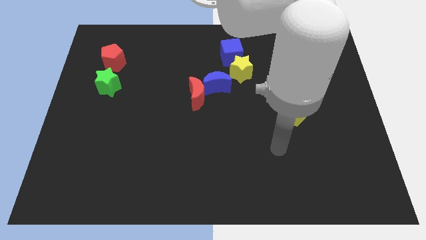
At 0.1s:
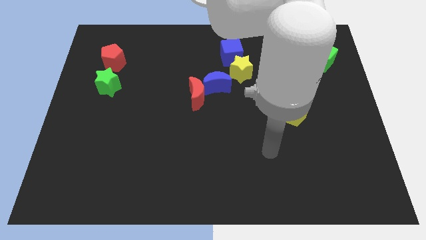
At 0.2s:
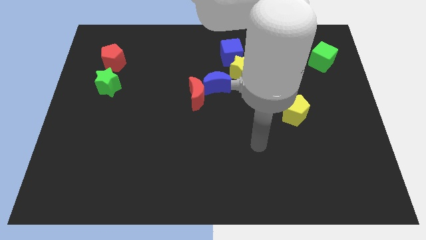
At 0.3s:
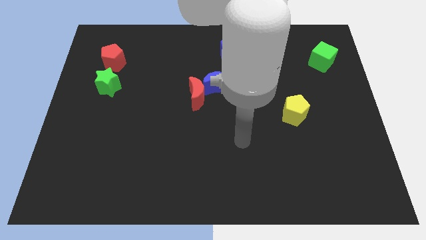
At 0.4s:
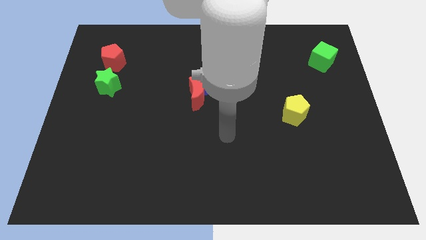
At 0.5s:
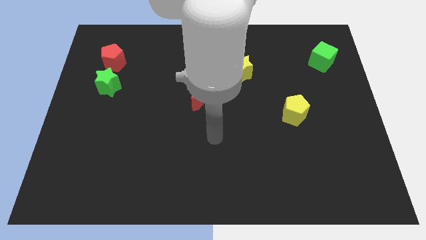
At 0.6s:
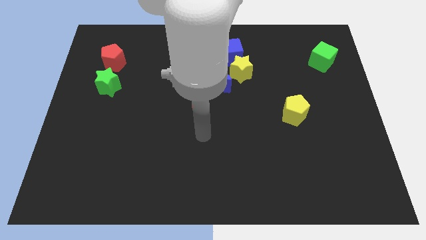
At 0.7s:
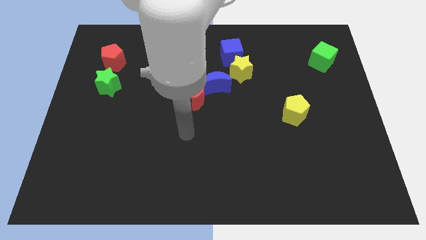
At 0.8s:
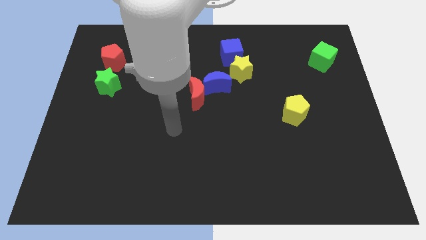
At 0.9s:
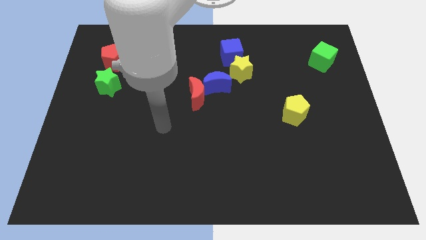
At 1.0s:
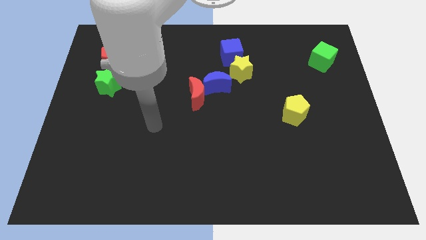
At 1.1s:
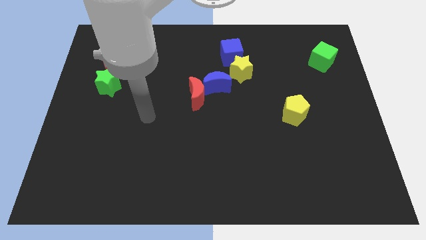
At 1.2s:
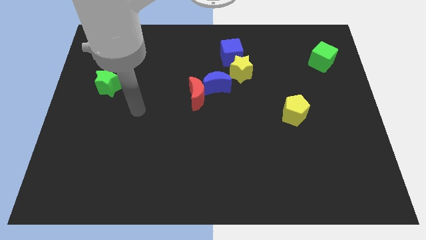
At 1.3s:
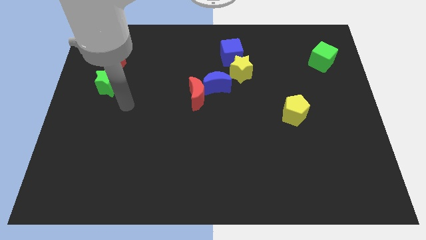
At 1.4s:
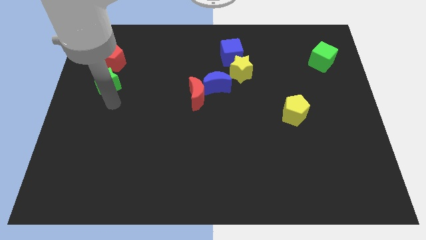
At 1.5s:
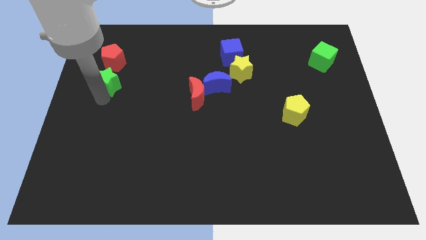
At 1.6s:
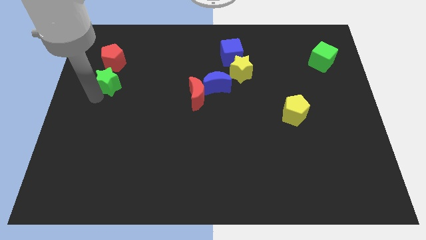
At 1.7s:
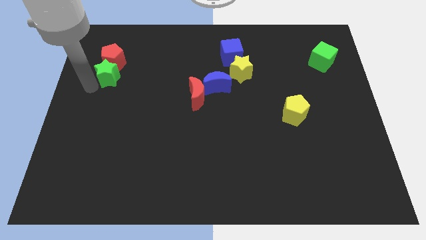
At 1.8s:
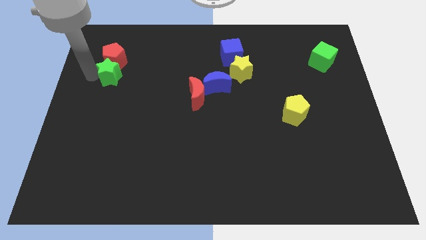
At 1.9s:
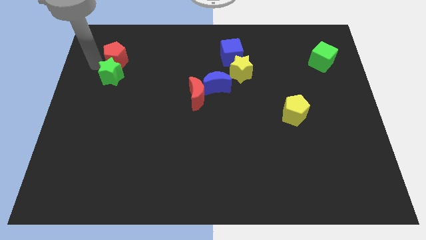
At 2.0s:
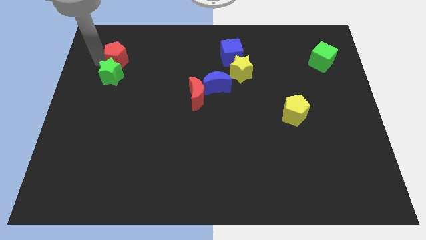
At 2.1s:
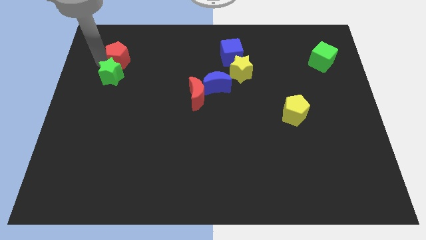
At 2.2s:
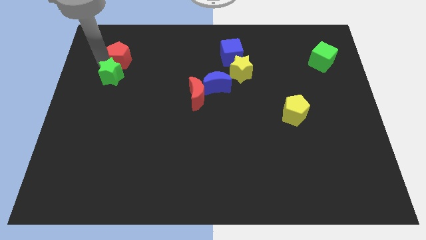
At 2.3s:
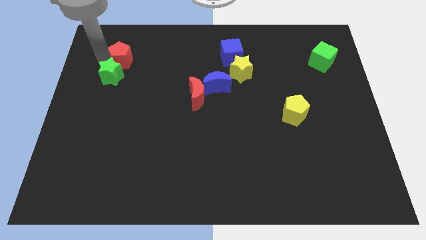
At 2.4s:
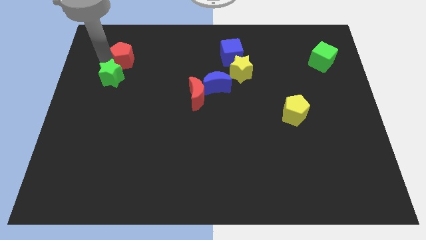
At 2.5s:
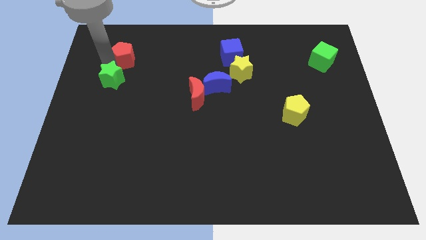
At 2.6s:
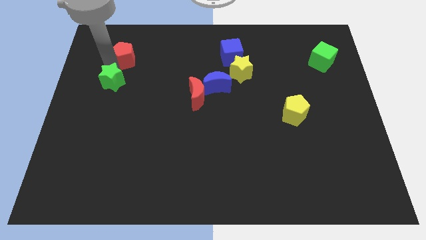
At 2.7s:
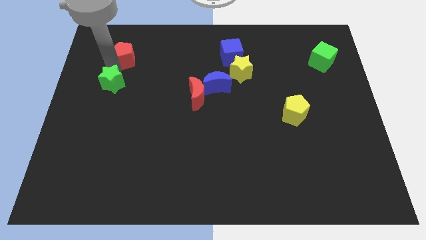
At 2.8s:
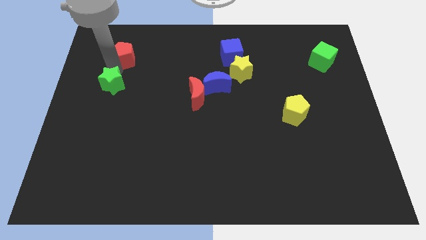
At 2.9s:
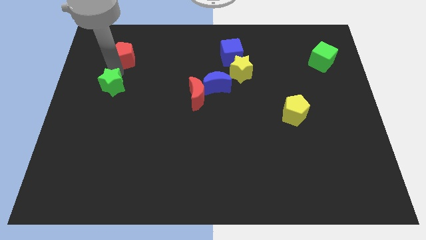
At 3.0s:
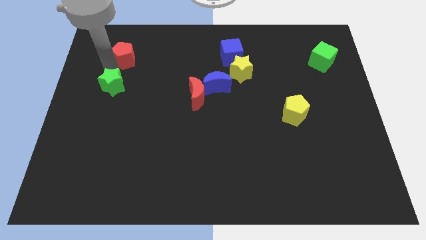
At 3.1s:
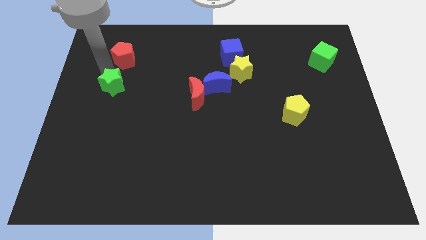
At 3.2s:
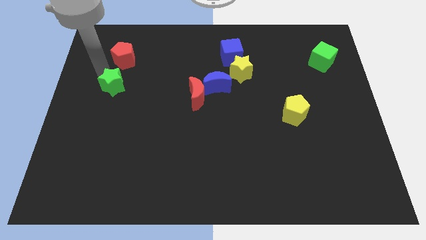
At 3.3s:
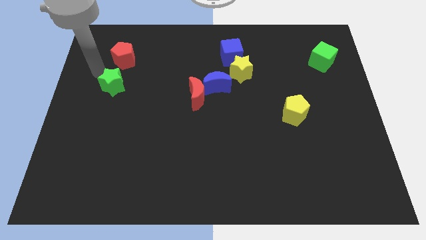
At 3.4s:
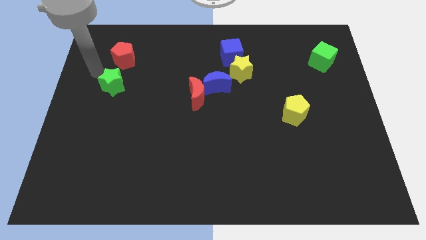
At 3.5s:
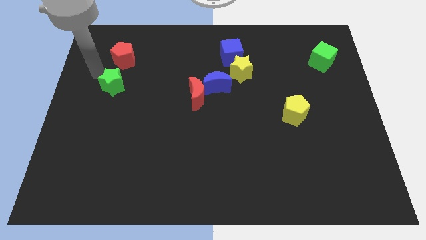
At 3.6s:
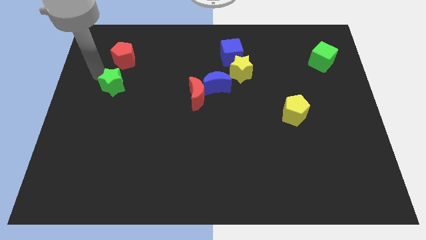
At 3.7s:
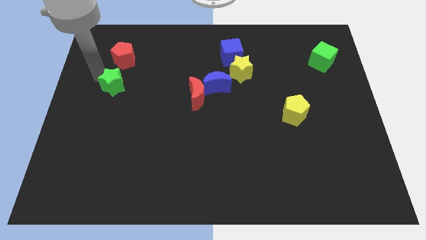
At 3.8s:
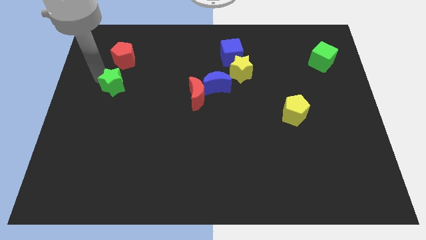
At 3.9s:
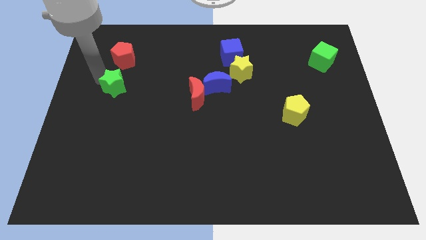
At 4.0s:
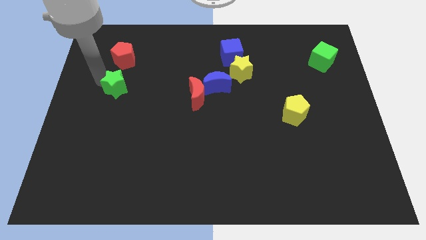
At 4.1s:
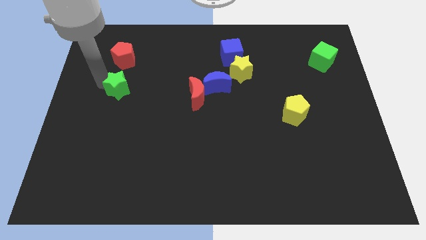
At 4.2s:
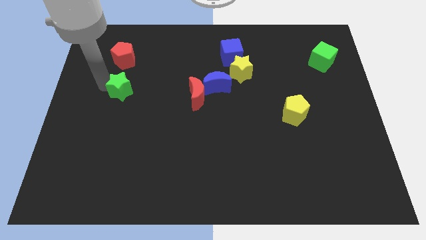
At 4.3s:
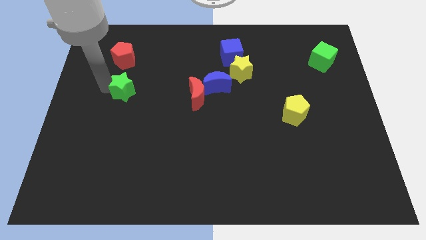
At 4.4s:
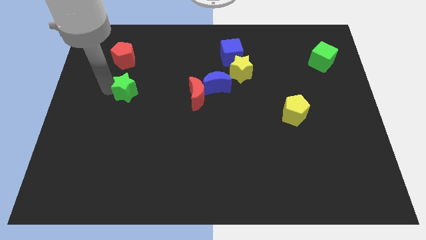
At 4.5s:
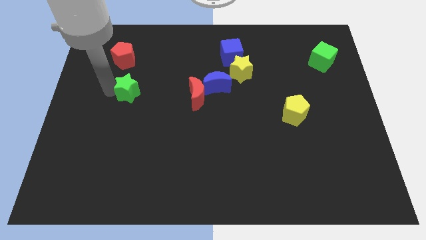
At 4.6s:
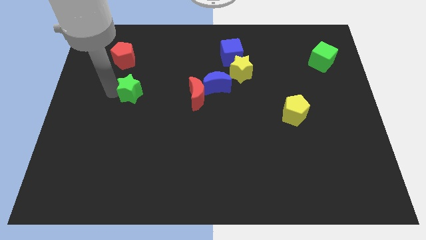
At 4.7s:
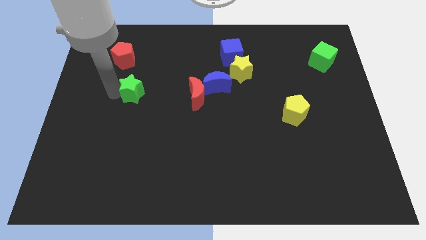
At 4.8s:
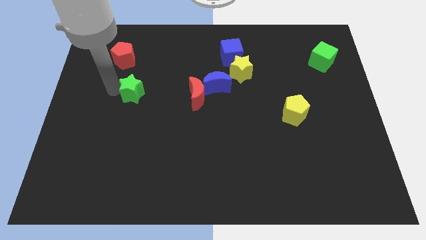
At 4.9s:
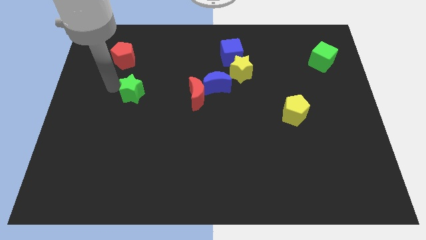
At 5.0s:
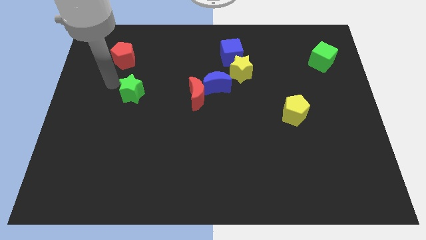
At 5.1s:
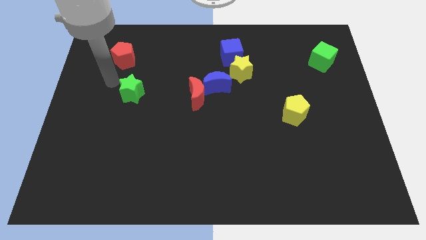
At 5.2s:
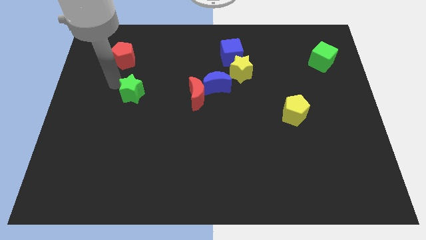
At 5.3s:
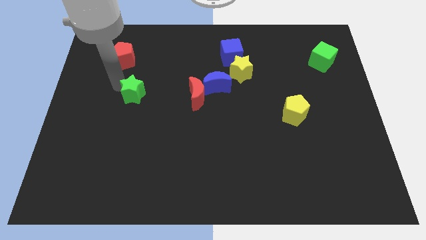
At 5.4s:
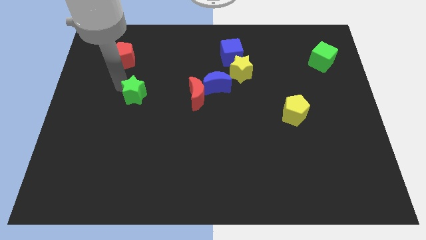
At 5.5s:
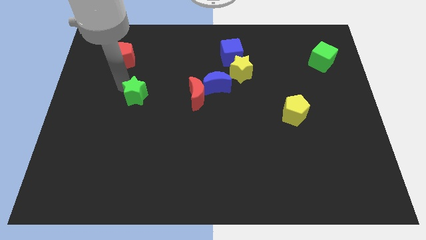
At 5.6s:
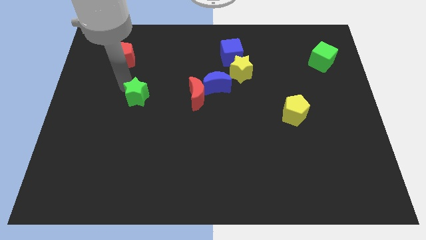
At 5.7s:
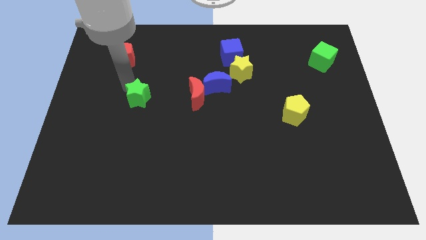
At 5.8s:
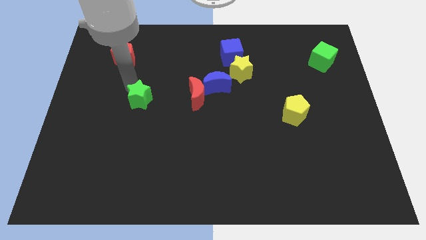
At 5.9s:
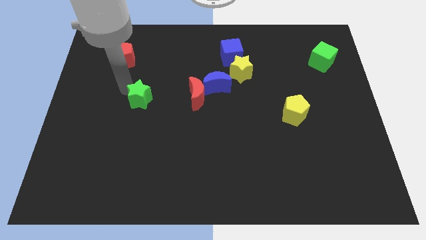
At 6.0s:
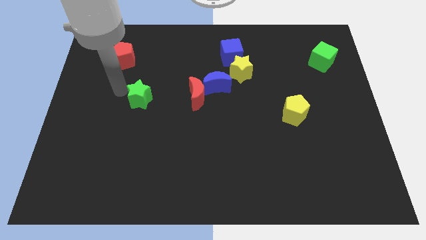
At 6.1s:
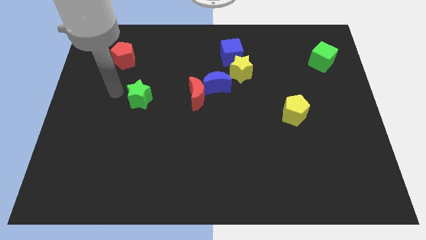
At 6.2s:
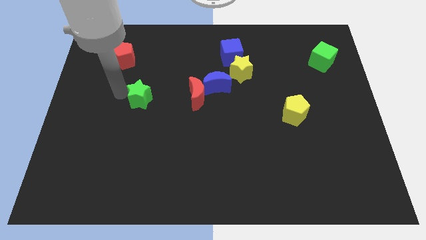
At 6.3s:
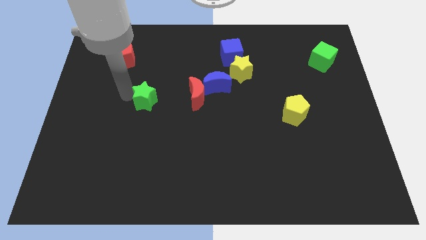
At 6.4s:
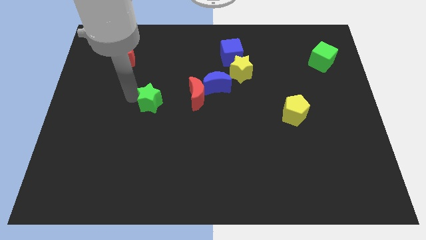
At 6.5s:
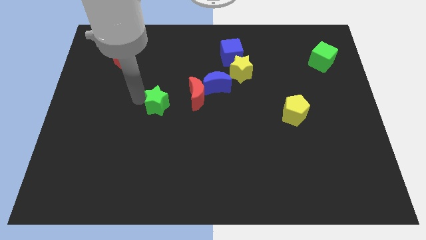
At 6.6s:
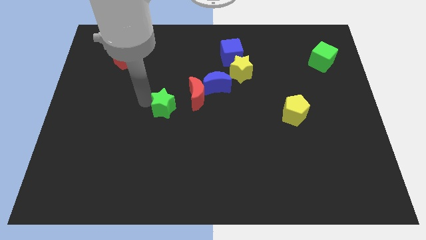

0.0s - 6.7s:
slide the green star to the middle
